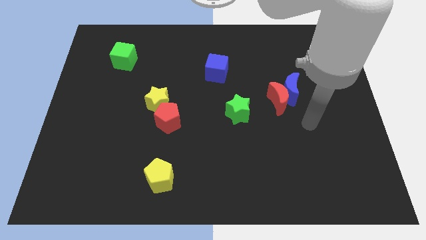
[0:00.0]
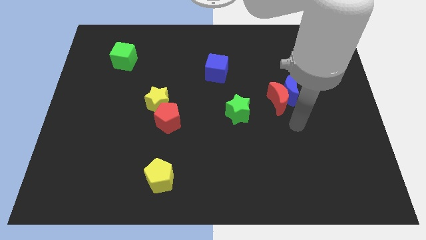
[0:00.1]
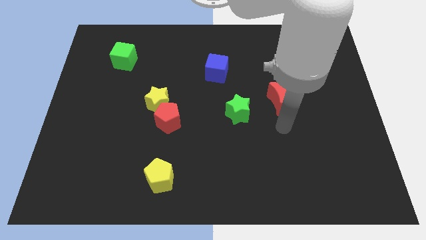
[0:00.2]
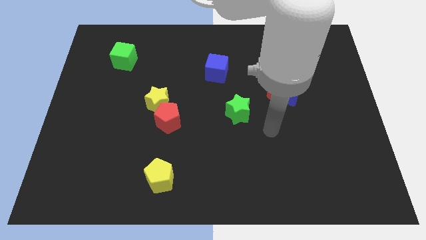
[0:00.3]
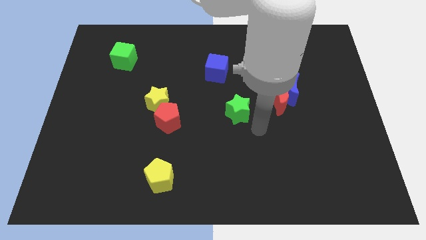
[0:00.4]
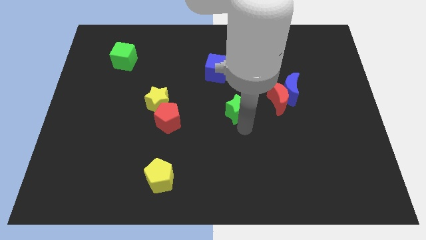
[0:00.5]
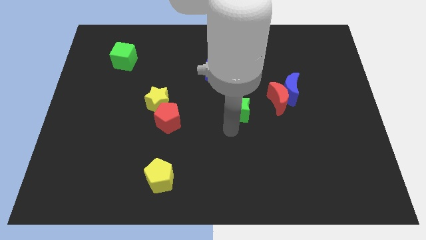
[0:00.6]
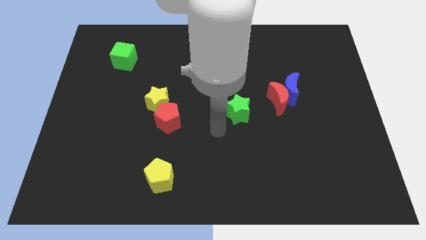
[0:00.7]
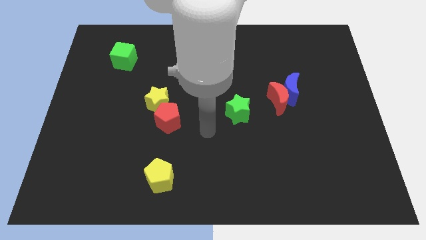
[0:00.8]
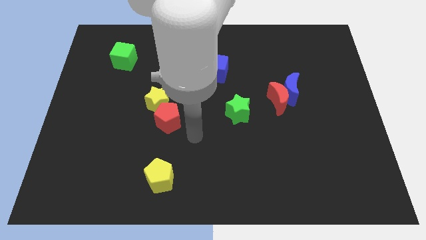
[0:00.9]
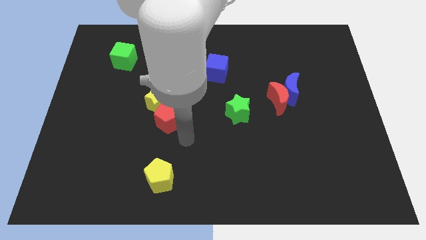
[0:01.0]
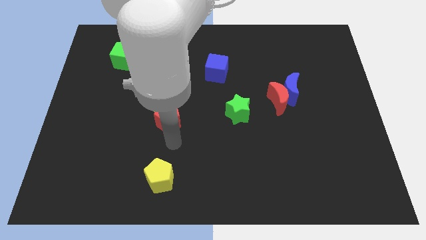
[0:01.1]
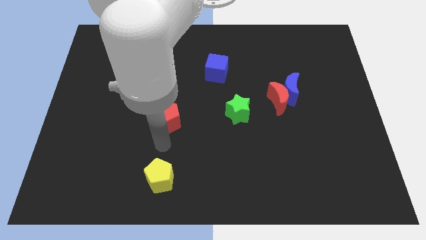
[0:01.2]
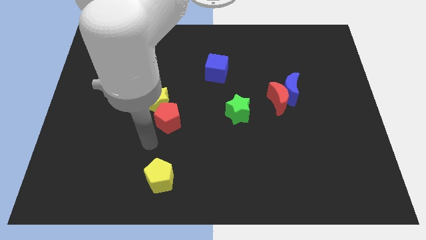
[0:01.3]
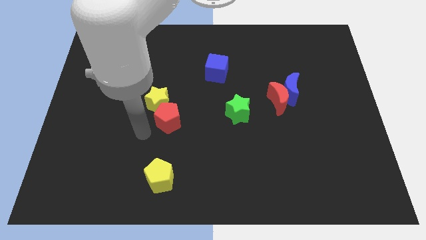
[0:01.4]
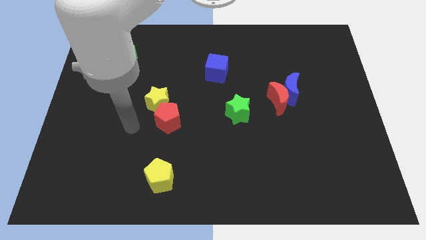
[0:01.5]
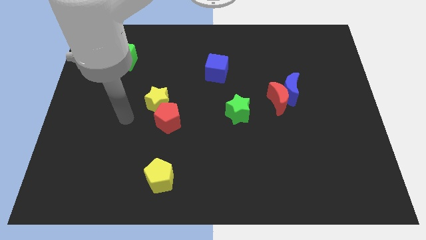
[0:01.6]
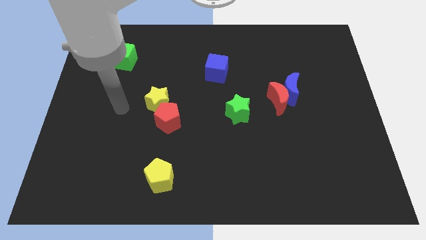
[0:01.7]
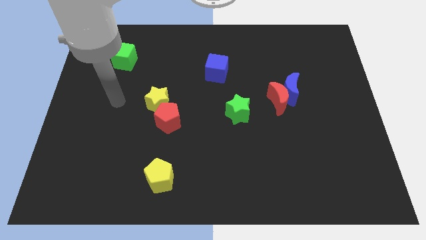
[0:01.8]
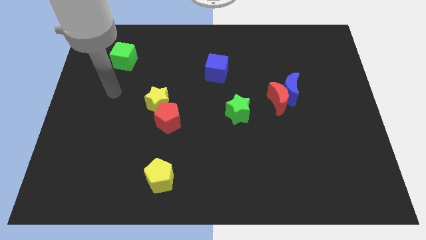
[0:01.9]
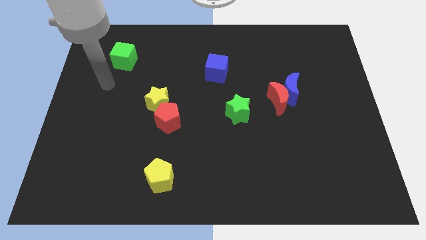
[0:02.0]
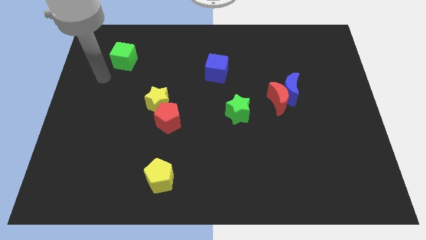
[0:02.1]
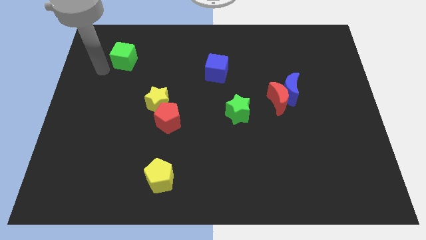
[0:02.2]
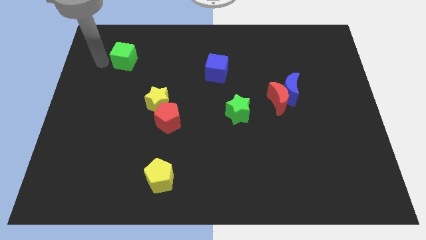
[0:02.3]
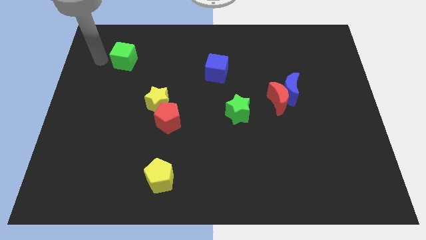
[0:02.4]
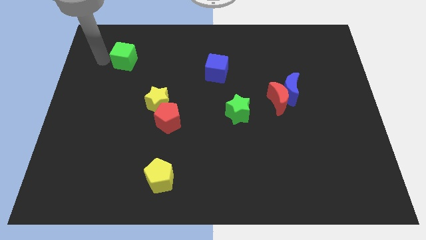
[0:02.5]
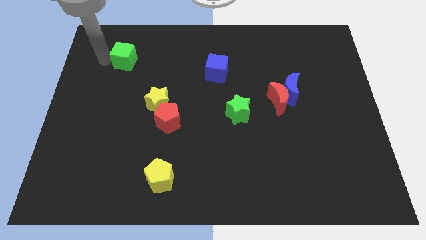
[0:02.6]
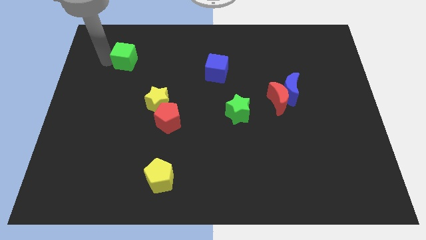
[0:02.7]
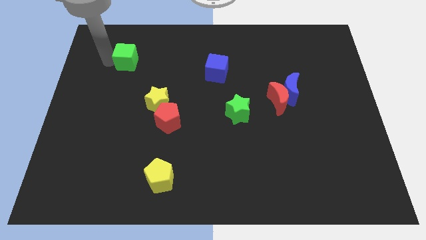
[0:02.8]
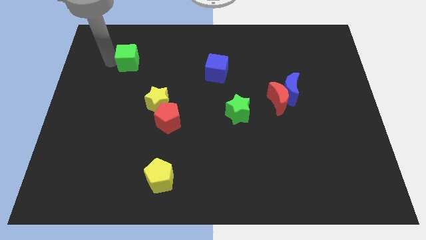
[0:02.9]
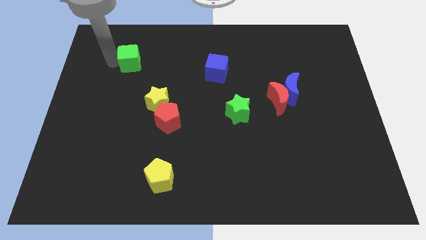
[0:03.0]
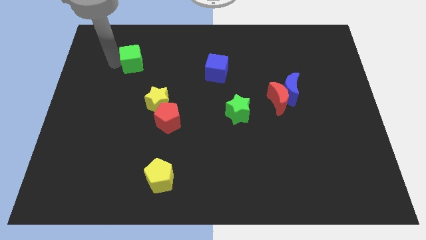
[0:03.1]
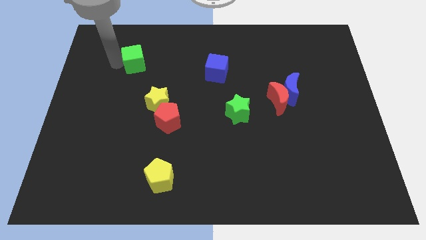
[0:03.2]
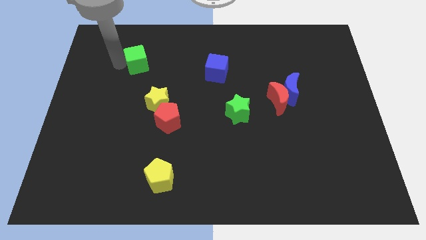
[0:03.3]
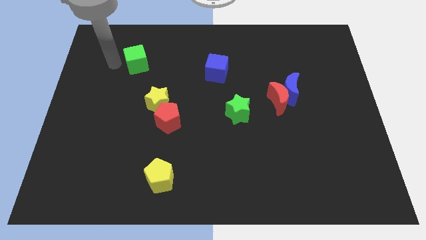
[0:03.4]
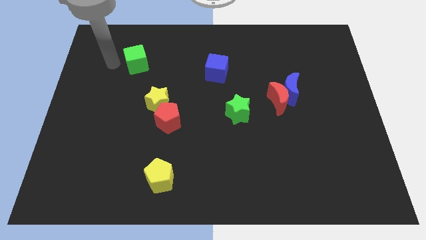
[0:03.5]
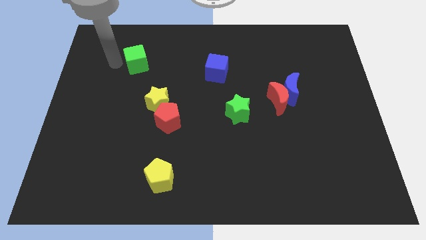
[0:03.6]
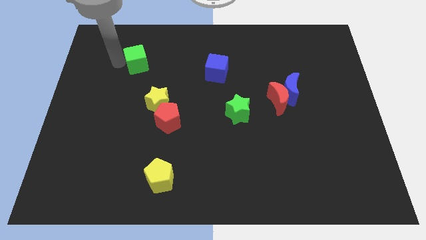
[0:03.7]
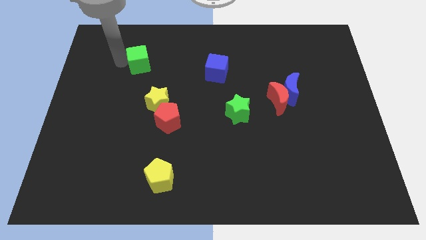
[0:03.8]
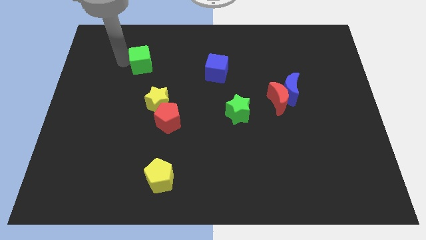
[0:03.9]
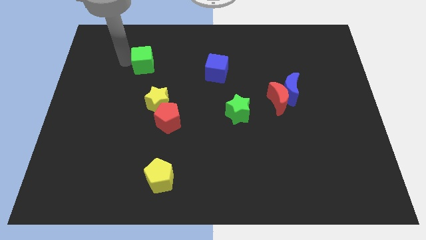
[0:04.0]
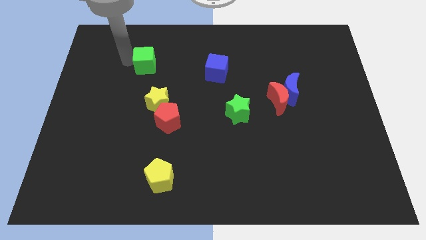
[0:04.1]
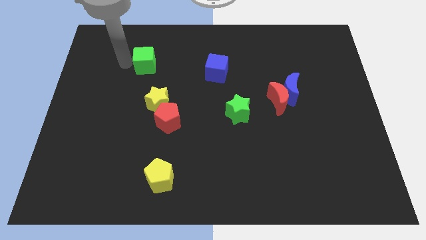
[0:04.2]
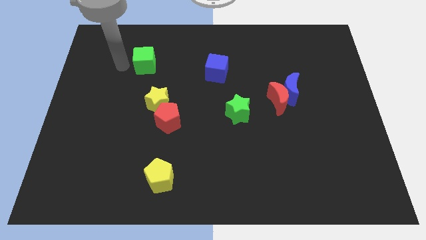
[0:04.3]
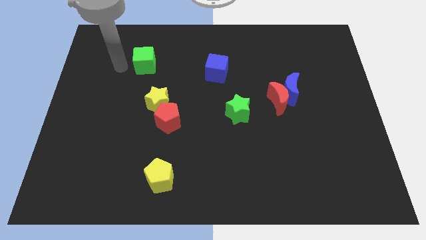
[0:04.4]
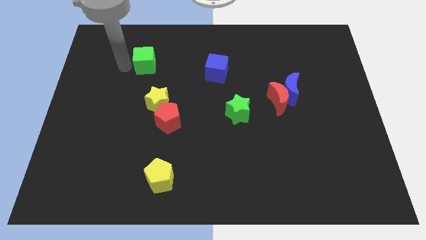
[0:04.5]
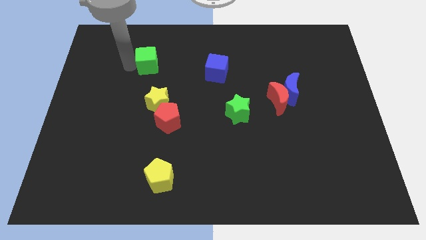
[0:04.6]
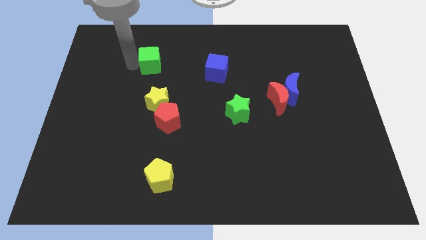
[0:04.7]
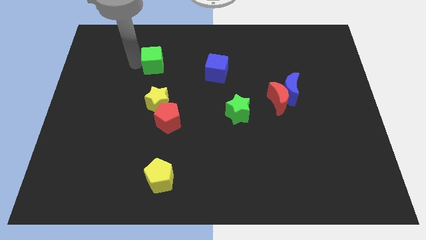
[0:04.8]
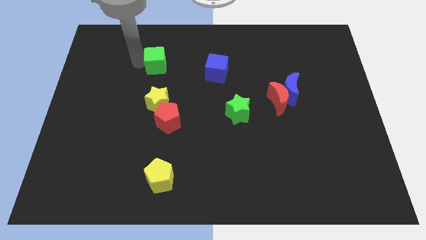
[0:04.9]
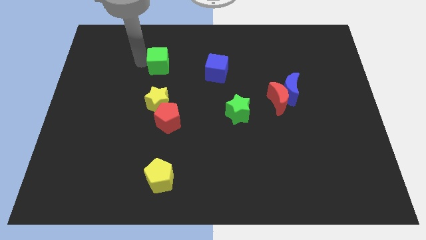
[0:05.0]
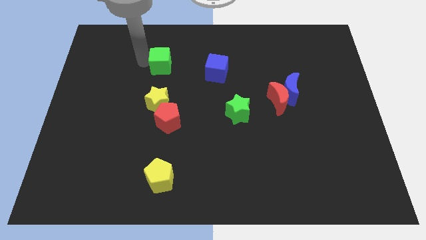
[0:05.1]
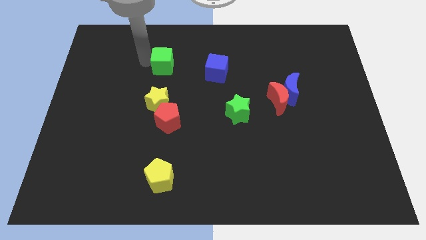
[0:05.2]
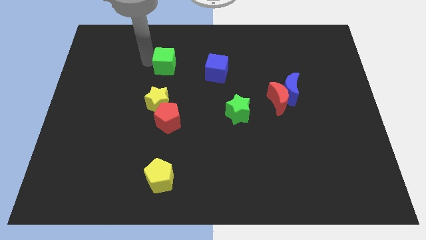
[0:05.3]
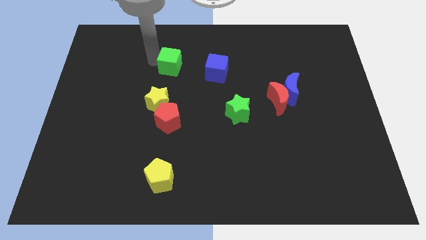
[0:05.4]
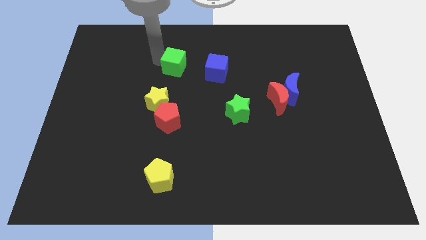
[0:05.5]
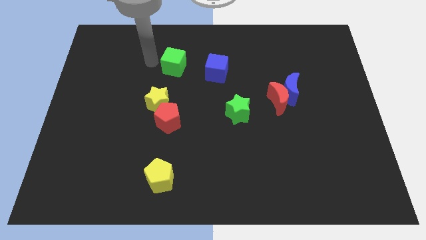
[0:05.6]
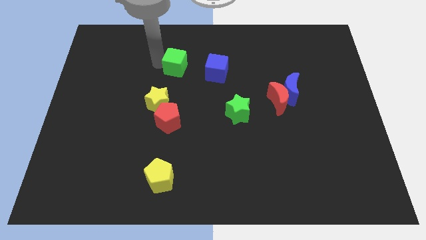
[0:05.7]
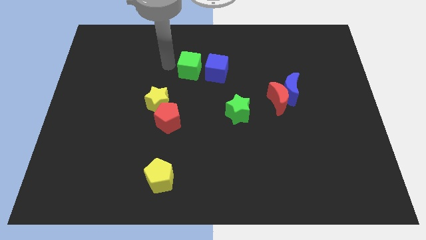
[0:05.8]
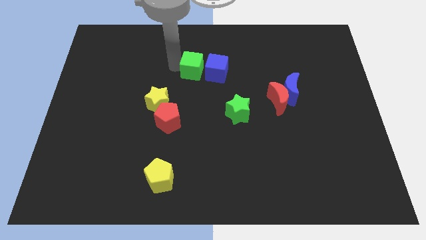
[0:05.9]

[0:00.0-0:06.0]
push the green cube close to the blue cube

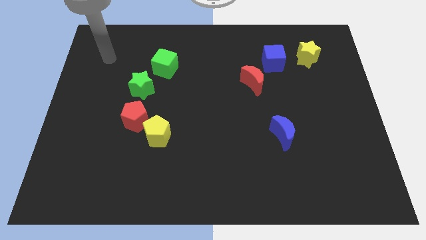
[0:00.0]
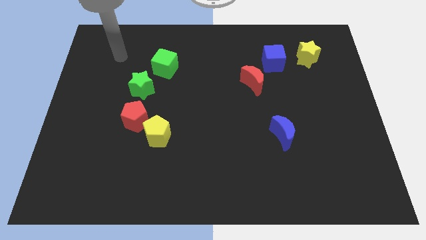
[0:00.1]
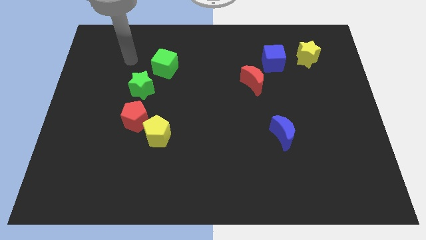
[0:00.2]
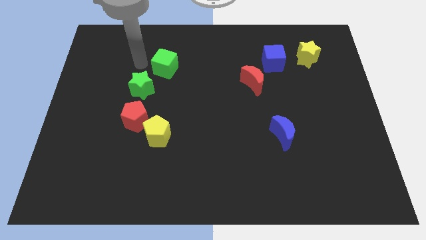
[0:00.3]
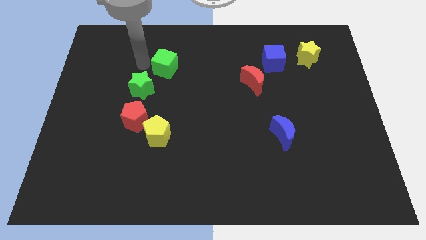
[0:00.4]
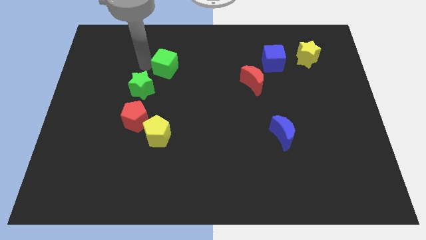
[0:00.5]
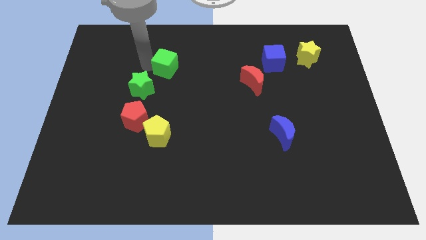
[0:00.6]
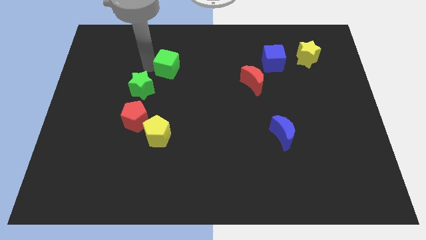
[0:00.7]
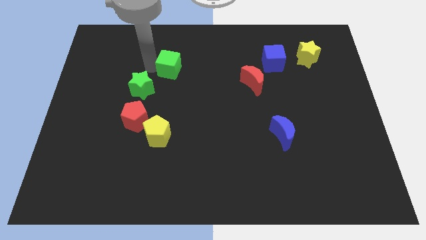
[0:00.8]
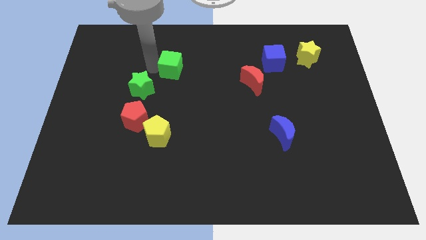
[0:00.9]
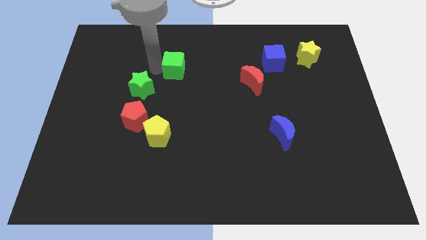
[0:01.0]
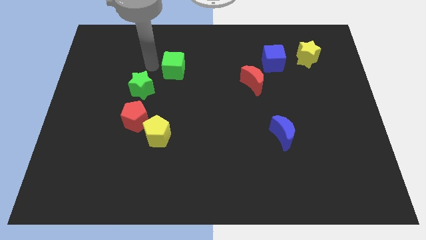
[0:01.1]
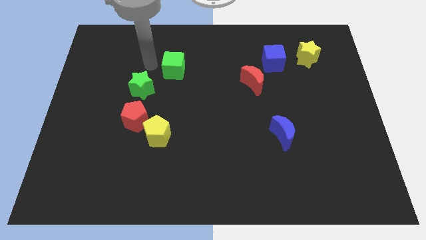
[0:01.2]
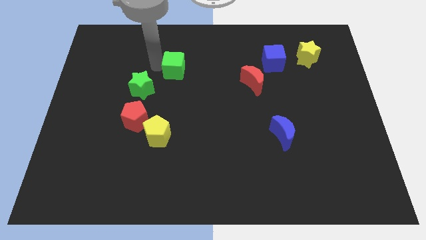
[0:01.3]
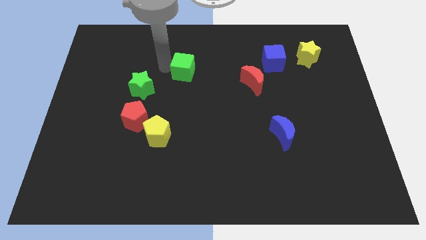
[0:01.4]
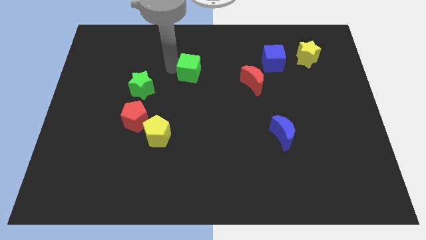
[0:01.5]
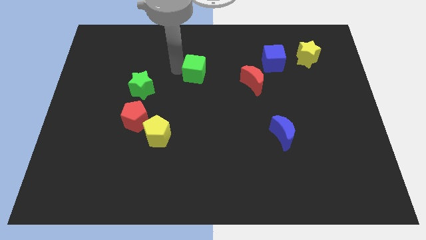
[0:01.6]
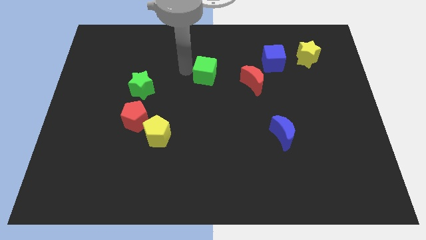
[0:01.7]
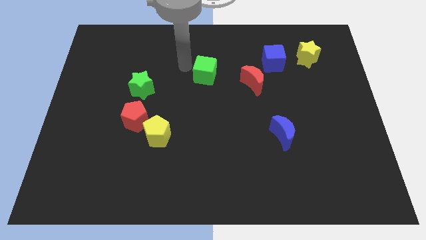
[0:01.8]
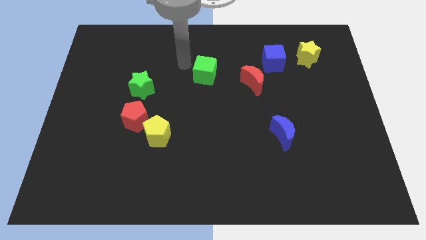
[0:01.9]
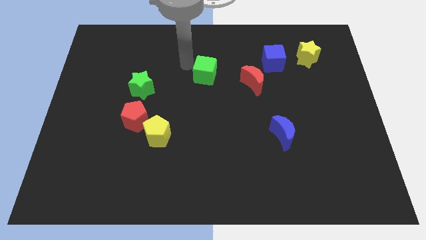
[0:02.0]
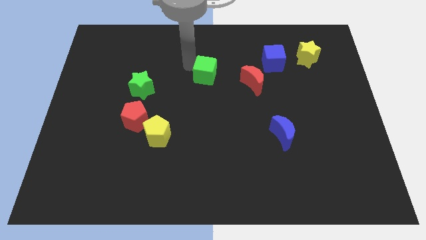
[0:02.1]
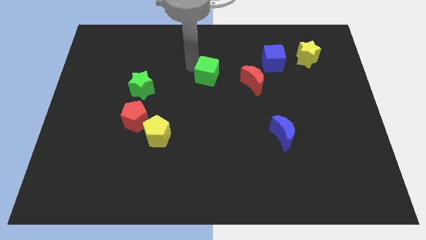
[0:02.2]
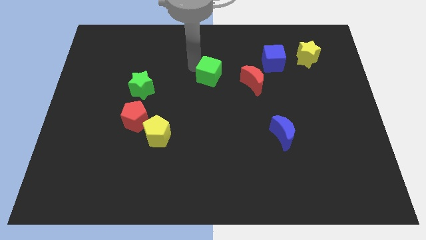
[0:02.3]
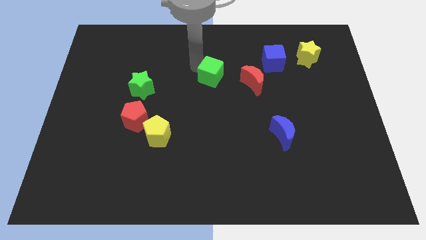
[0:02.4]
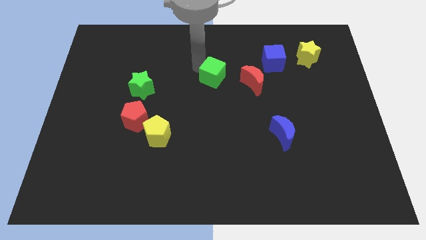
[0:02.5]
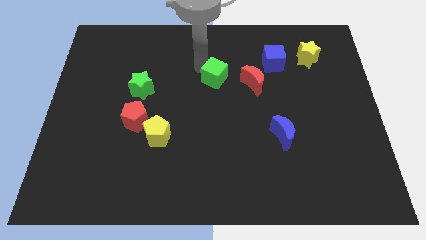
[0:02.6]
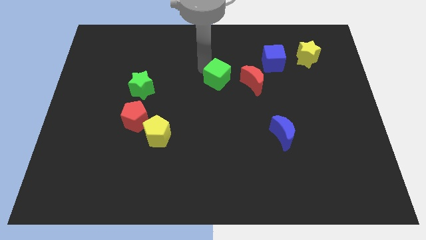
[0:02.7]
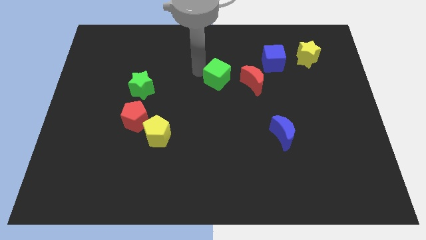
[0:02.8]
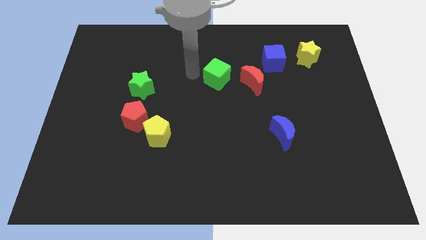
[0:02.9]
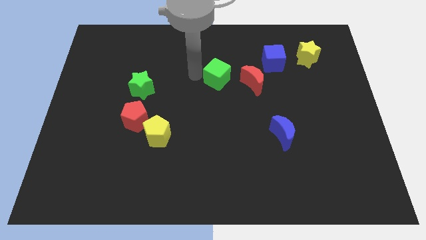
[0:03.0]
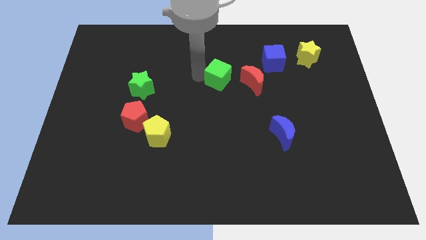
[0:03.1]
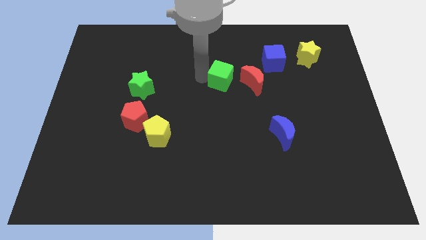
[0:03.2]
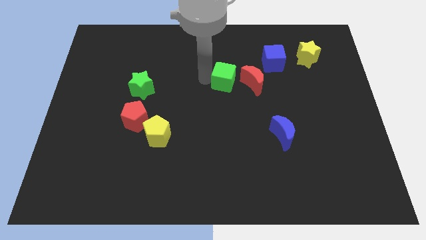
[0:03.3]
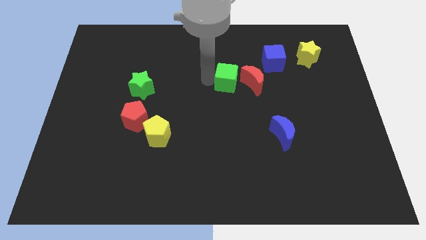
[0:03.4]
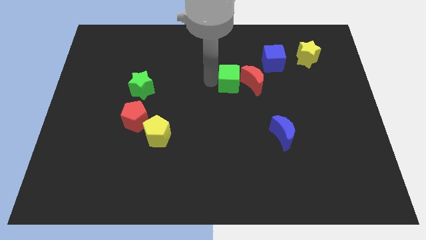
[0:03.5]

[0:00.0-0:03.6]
put the green cube towards the red moon
